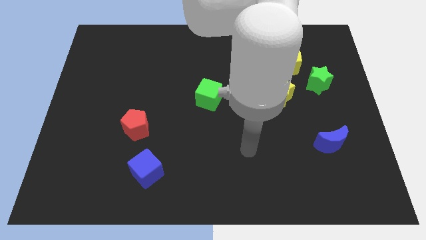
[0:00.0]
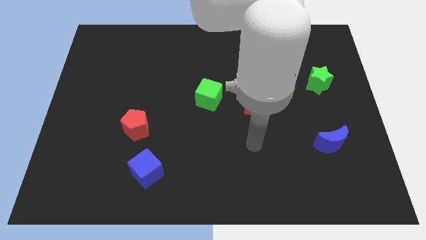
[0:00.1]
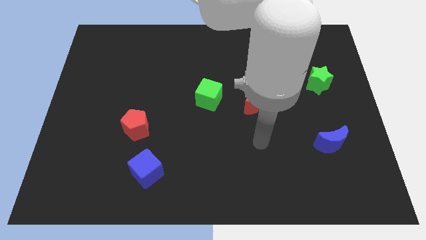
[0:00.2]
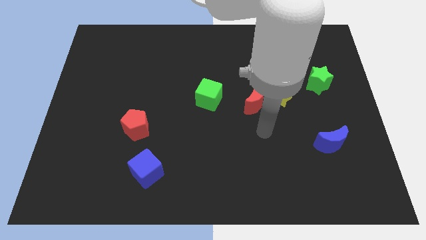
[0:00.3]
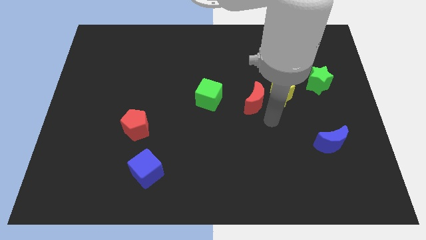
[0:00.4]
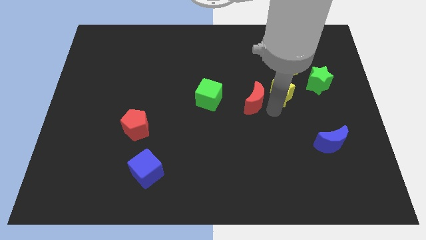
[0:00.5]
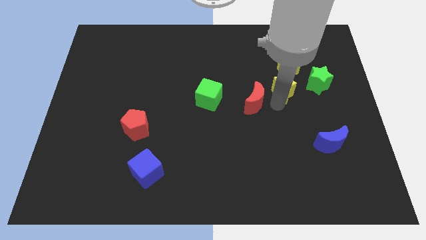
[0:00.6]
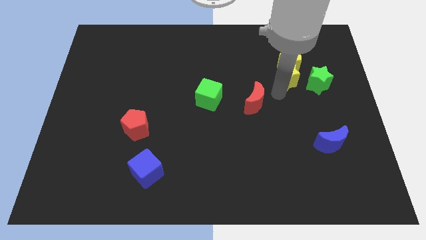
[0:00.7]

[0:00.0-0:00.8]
pull the red moon apart from the yellow star

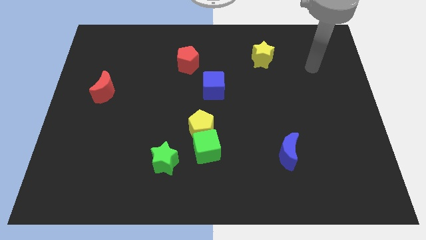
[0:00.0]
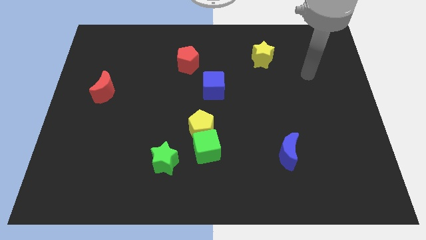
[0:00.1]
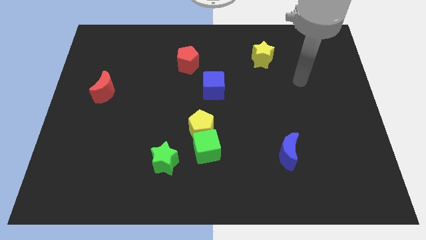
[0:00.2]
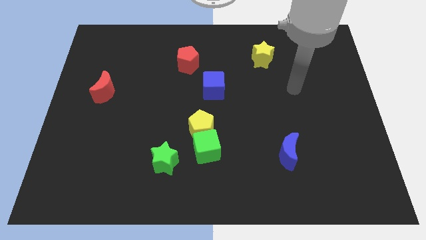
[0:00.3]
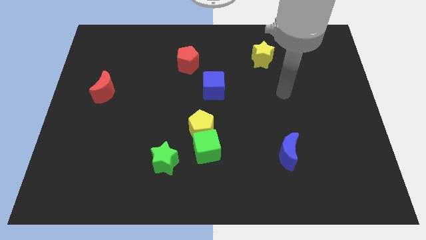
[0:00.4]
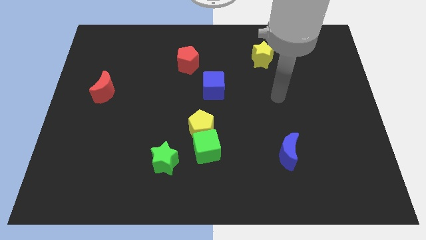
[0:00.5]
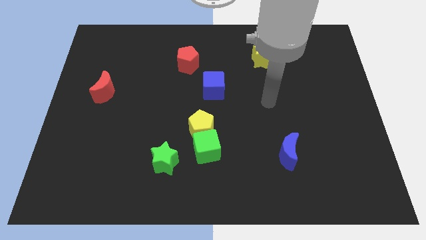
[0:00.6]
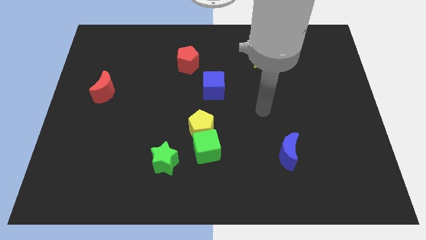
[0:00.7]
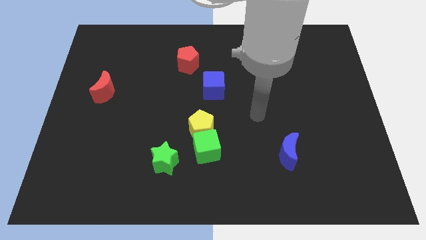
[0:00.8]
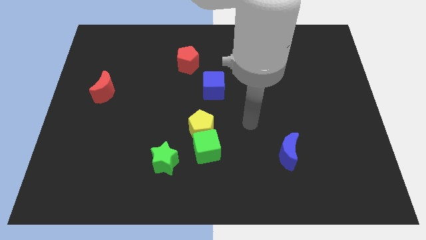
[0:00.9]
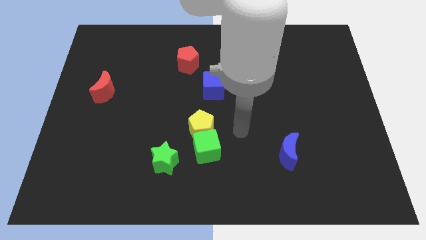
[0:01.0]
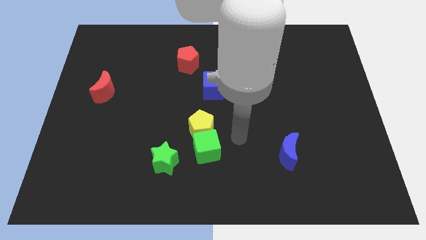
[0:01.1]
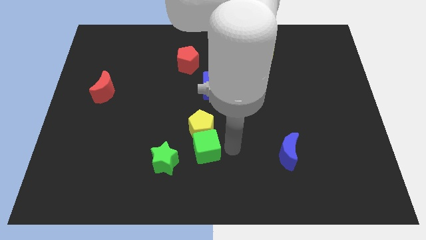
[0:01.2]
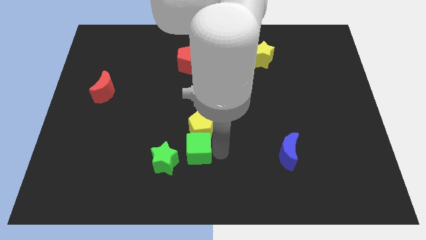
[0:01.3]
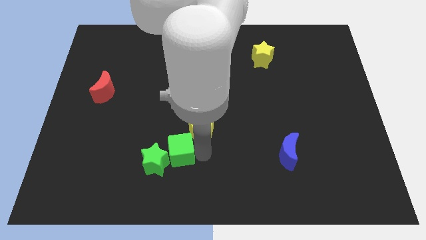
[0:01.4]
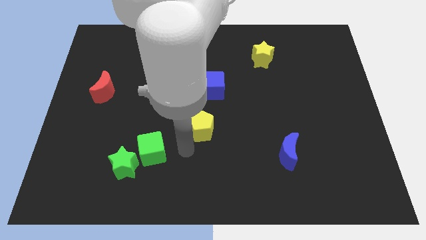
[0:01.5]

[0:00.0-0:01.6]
separate the yellow pentagon from the green cube

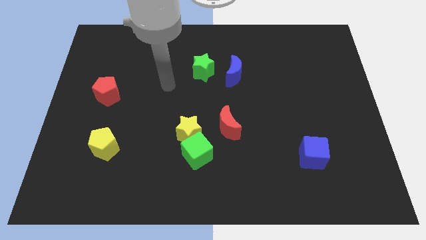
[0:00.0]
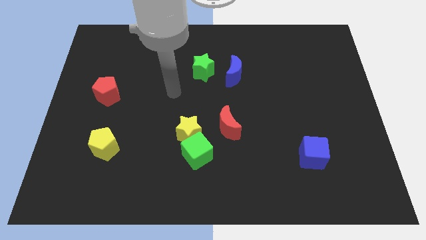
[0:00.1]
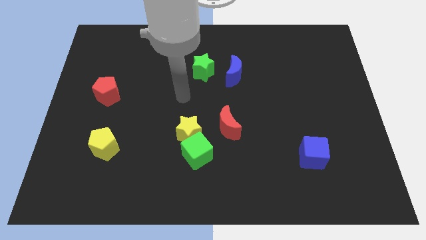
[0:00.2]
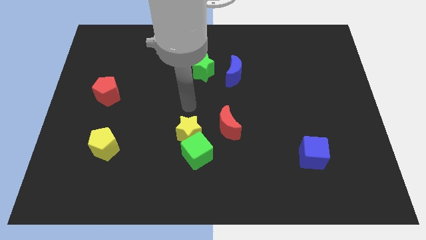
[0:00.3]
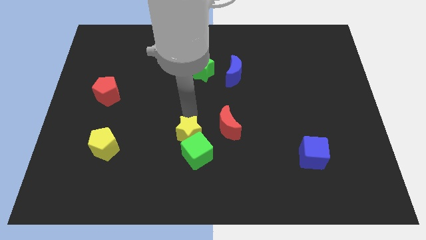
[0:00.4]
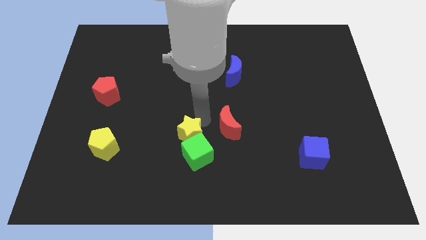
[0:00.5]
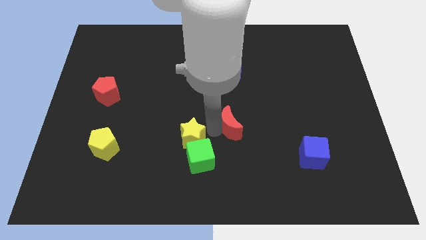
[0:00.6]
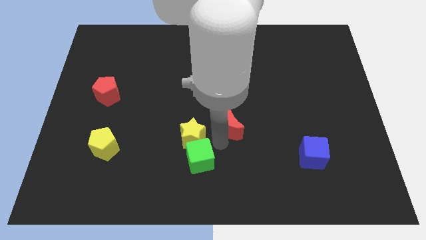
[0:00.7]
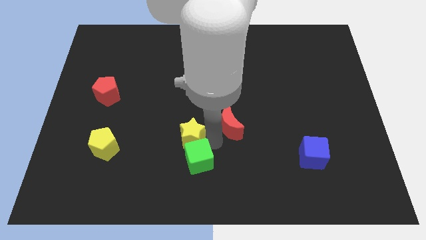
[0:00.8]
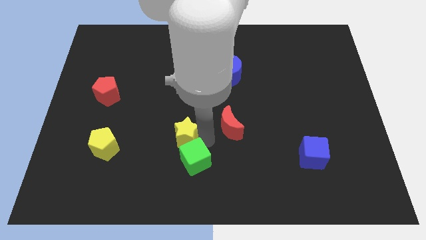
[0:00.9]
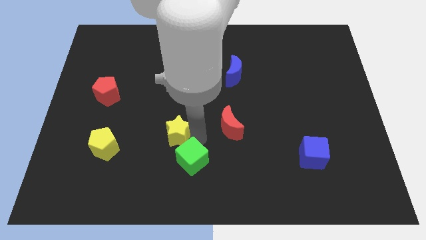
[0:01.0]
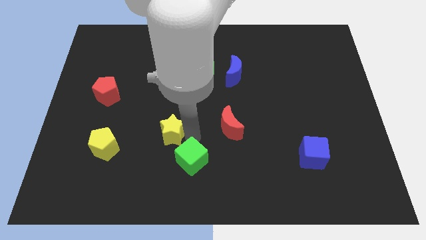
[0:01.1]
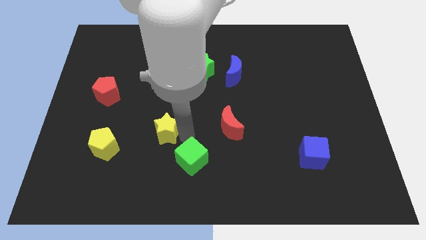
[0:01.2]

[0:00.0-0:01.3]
move the yellow star away from the green cube and red moon

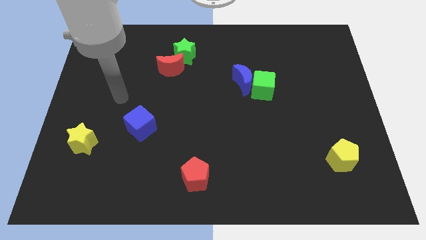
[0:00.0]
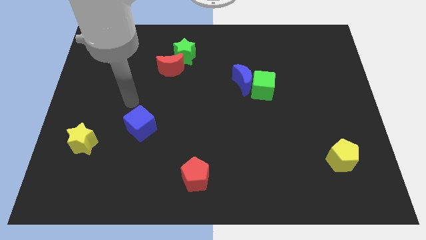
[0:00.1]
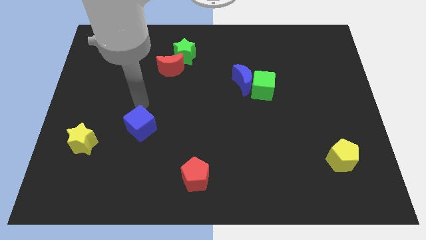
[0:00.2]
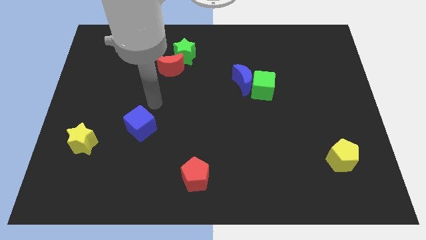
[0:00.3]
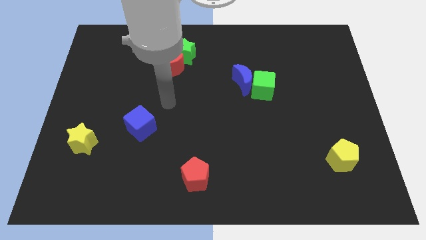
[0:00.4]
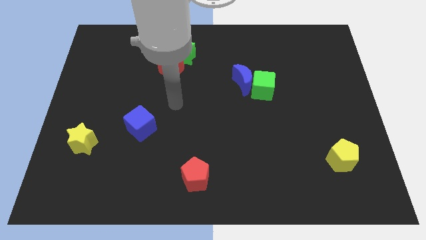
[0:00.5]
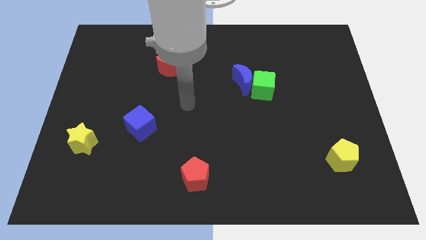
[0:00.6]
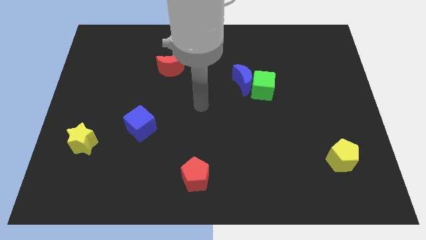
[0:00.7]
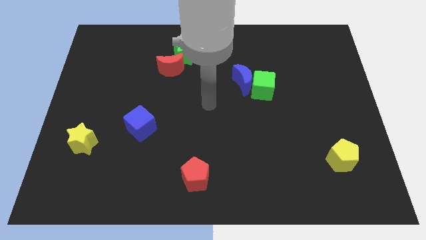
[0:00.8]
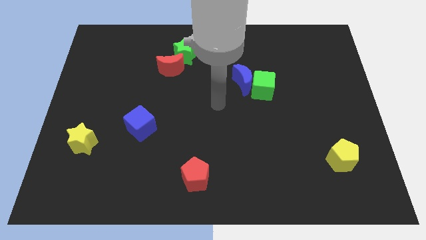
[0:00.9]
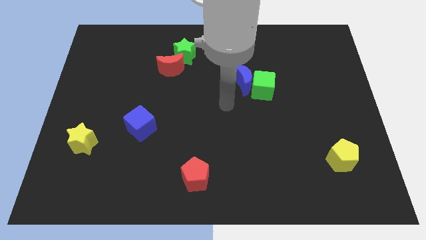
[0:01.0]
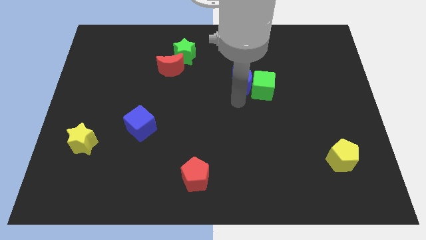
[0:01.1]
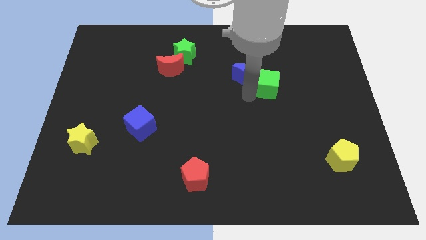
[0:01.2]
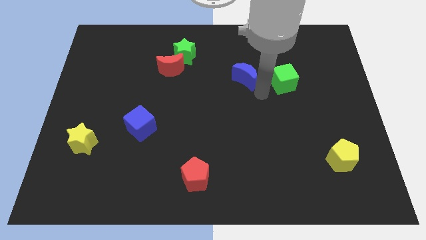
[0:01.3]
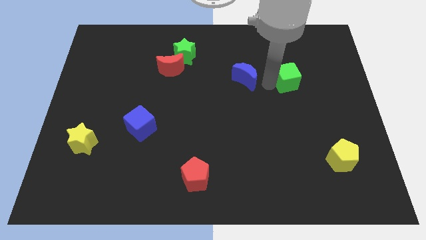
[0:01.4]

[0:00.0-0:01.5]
separate the blue moon from the green cube

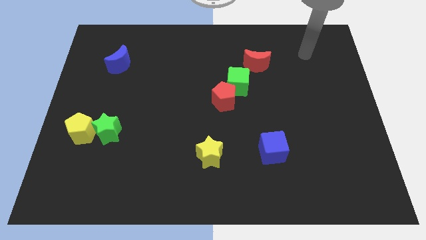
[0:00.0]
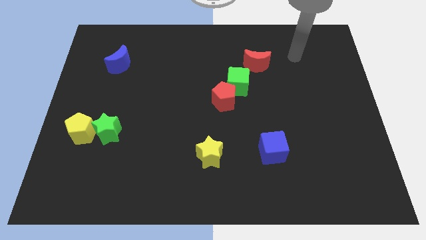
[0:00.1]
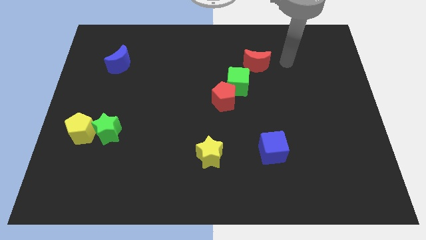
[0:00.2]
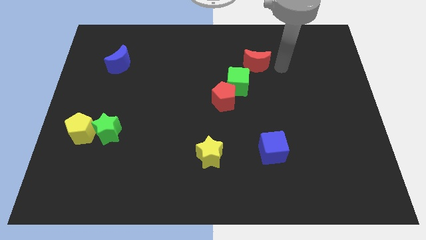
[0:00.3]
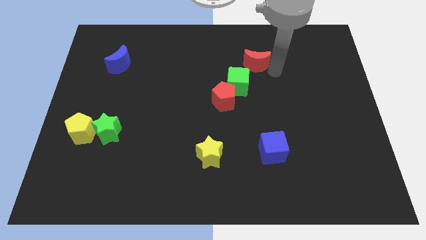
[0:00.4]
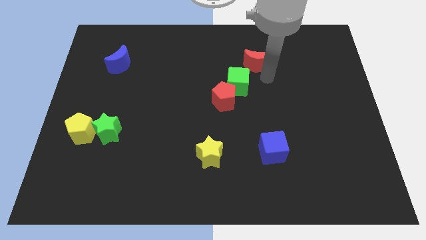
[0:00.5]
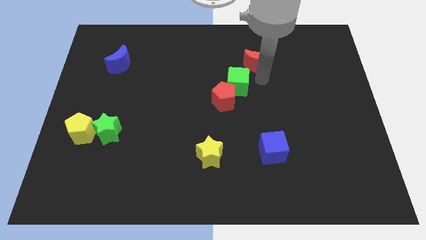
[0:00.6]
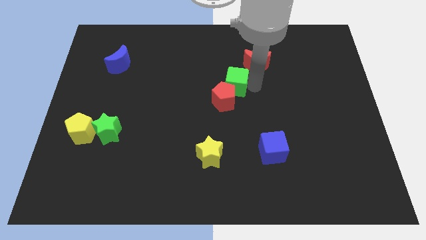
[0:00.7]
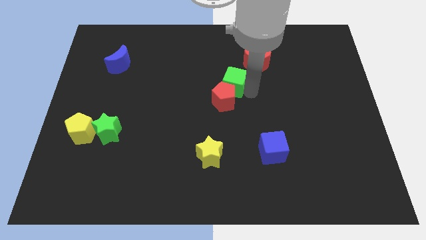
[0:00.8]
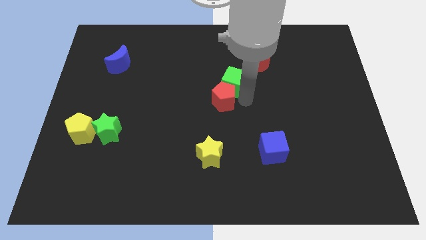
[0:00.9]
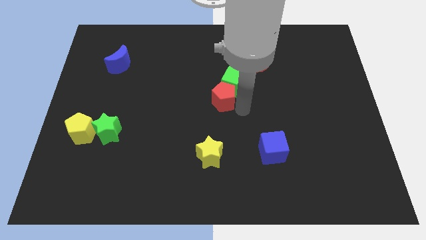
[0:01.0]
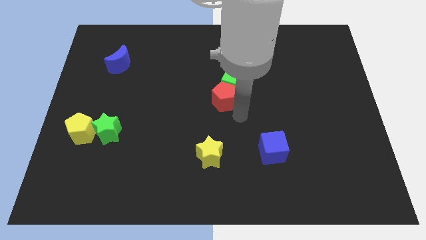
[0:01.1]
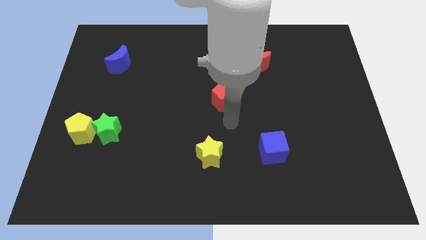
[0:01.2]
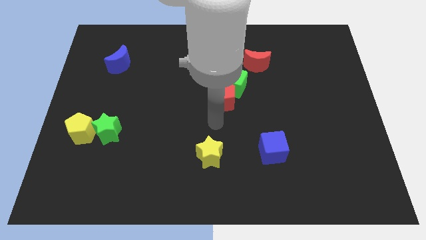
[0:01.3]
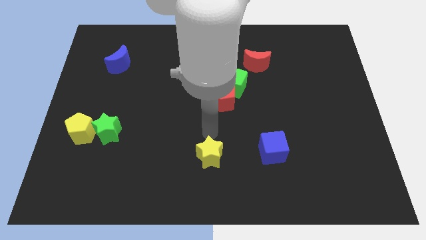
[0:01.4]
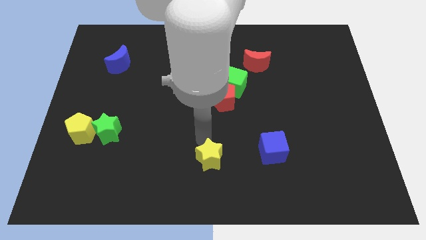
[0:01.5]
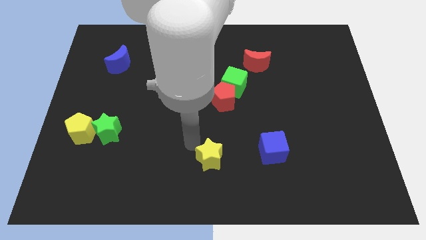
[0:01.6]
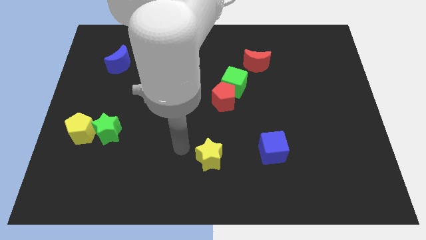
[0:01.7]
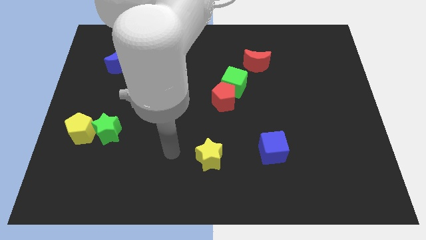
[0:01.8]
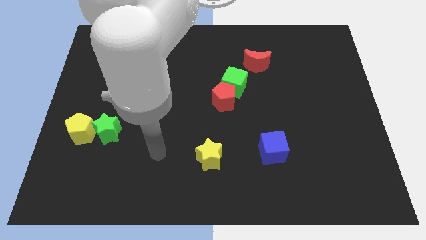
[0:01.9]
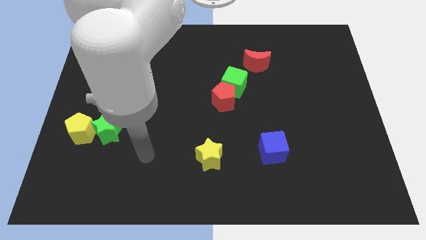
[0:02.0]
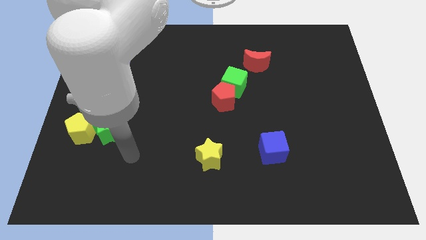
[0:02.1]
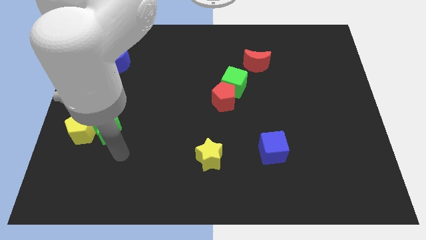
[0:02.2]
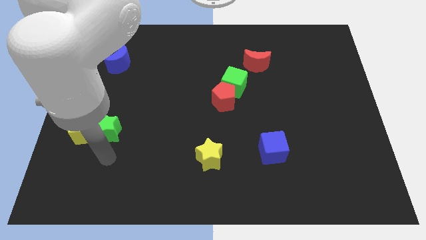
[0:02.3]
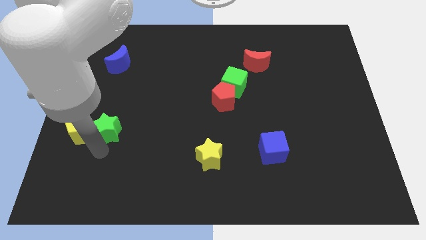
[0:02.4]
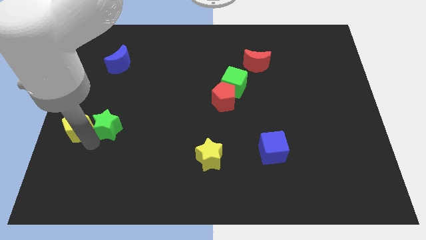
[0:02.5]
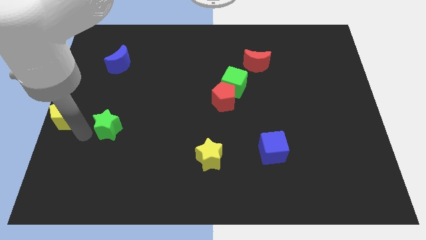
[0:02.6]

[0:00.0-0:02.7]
move the green star away from the yellow pentagon

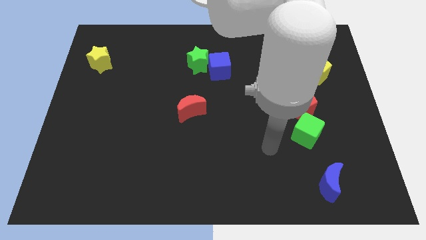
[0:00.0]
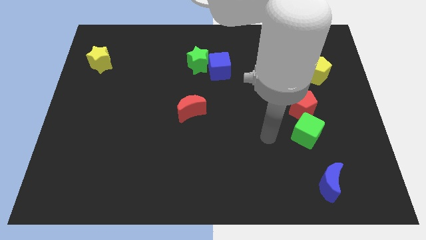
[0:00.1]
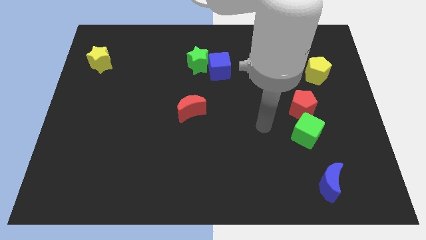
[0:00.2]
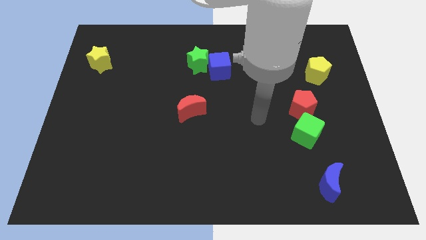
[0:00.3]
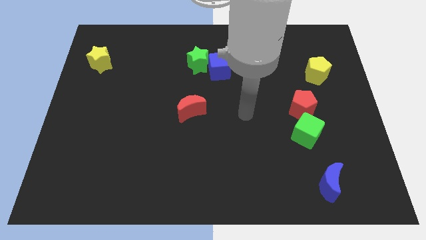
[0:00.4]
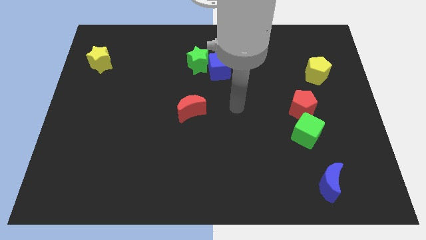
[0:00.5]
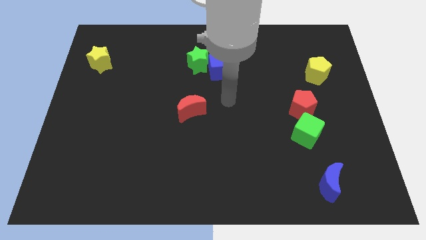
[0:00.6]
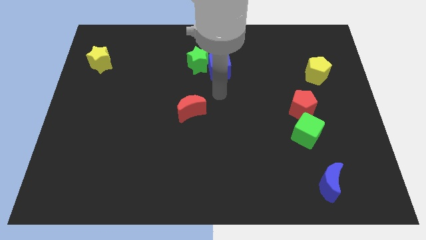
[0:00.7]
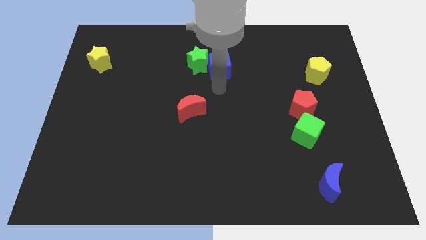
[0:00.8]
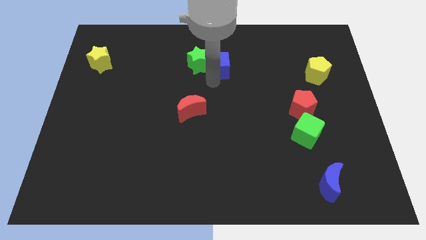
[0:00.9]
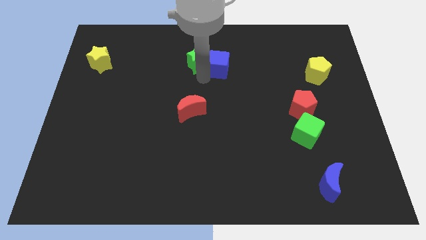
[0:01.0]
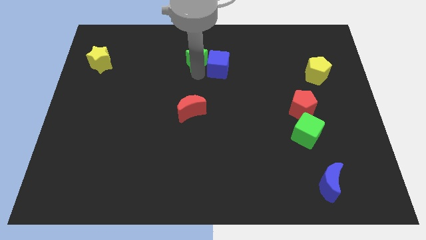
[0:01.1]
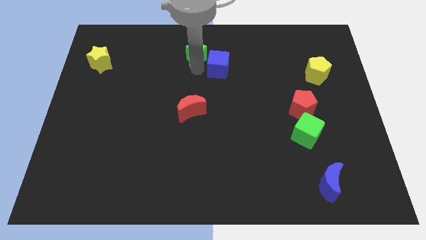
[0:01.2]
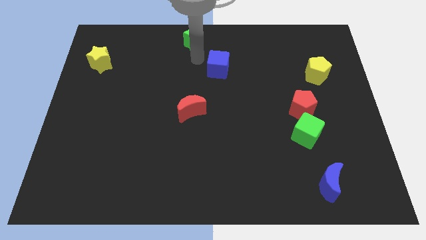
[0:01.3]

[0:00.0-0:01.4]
move the blue cube away from the green star
